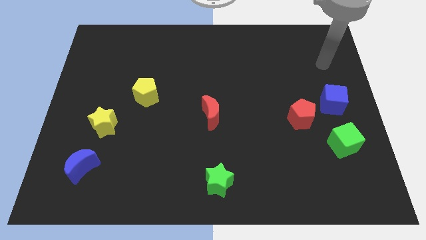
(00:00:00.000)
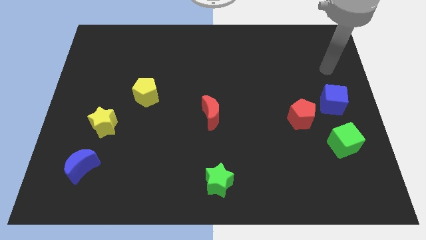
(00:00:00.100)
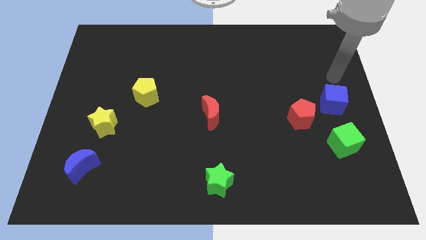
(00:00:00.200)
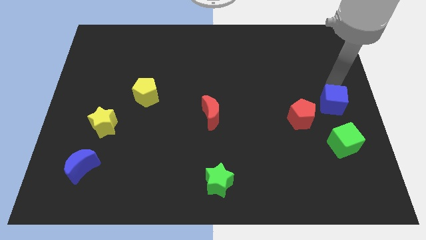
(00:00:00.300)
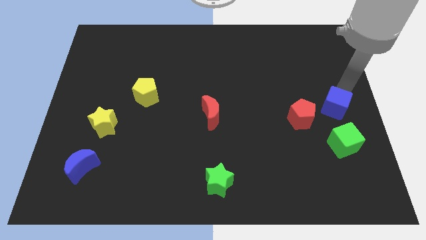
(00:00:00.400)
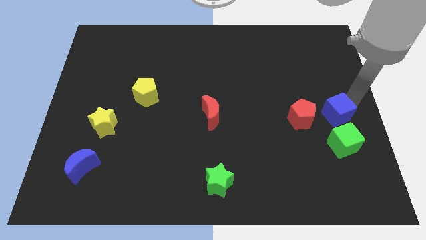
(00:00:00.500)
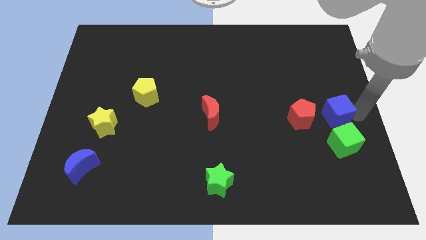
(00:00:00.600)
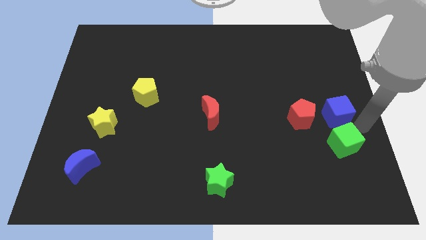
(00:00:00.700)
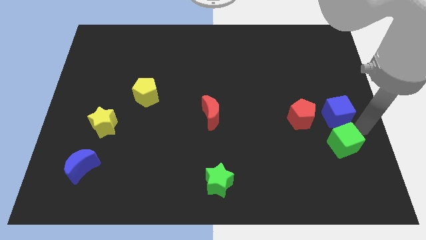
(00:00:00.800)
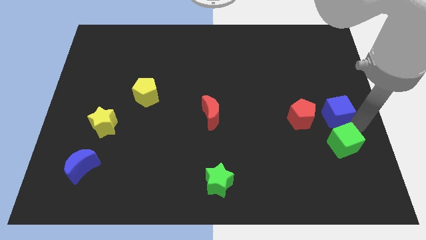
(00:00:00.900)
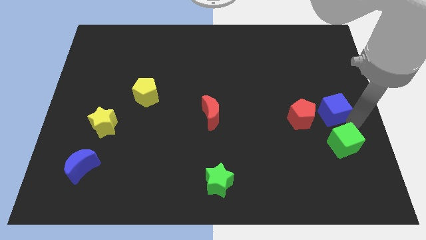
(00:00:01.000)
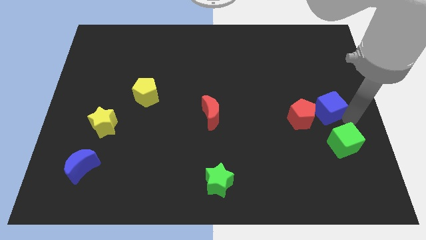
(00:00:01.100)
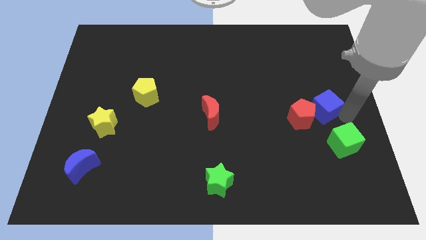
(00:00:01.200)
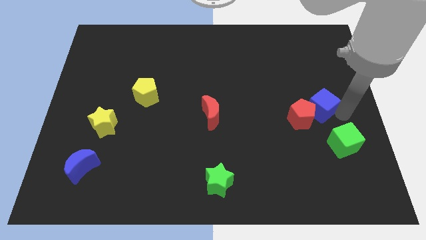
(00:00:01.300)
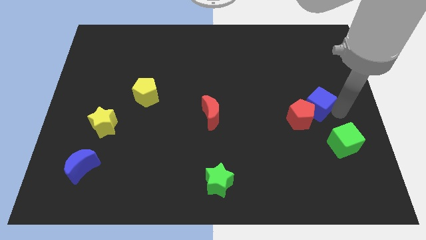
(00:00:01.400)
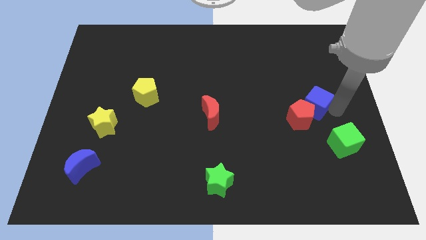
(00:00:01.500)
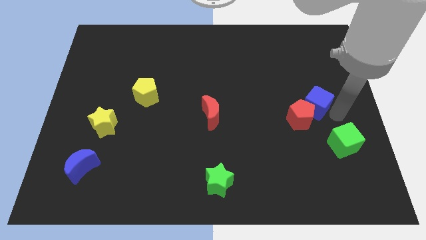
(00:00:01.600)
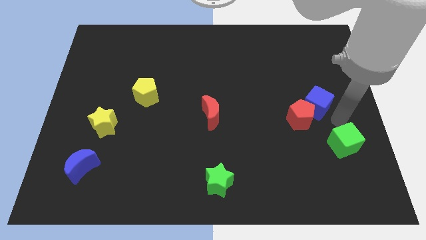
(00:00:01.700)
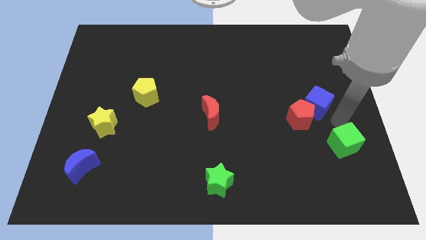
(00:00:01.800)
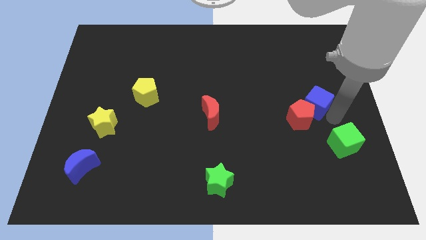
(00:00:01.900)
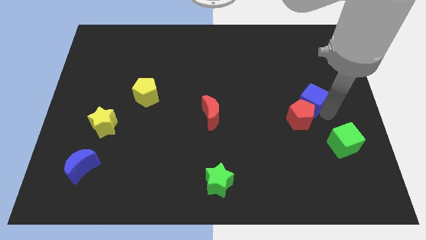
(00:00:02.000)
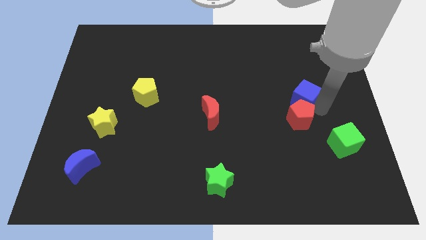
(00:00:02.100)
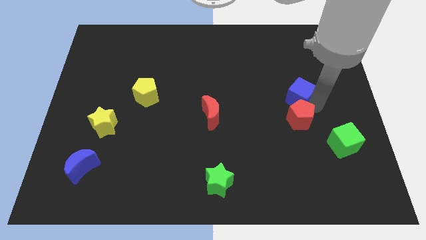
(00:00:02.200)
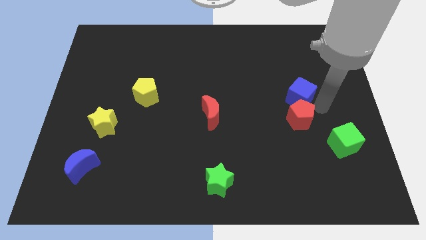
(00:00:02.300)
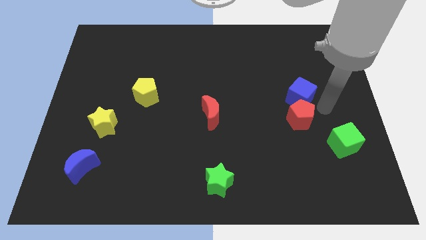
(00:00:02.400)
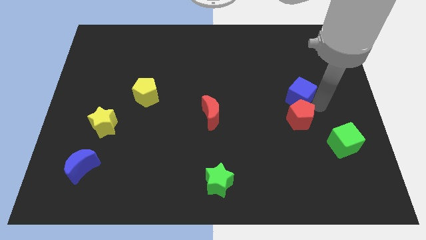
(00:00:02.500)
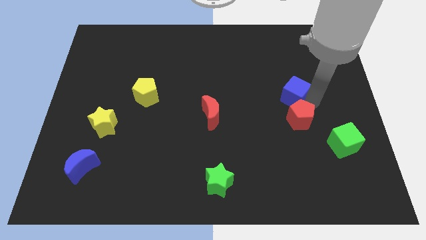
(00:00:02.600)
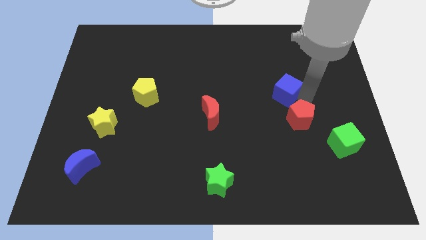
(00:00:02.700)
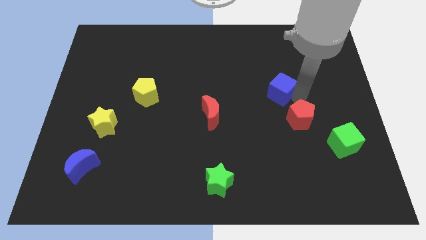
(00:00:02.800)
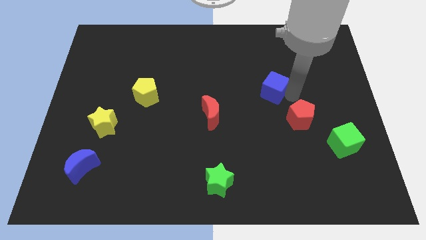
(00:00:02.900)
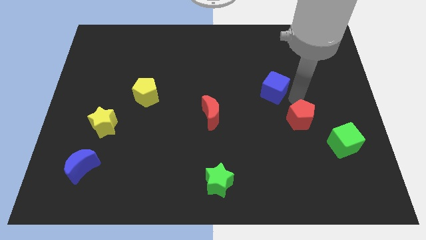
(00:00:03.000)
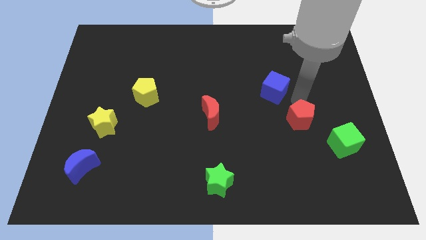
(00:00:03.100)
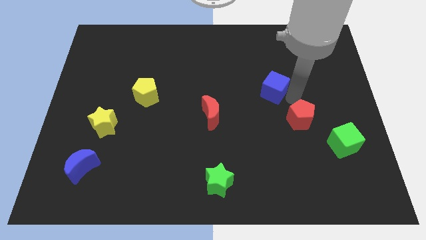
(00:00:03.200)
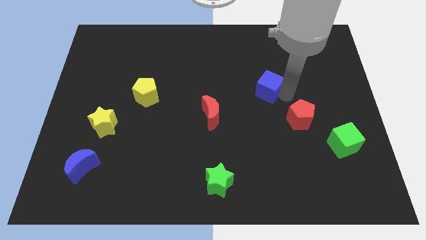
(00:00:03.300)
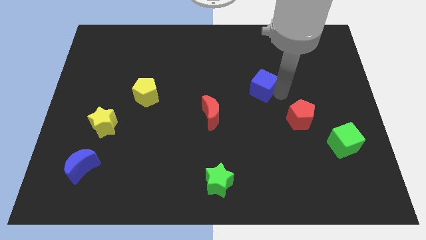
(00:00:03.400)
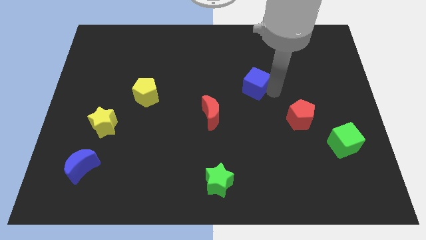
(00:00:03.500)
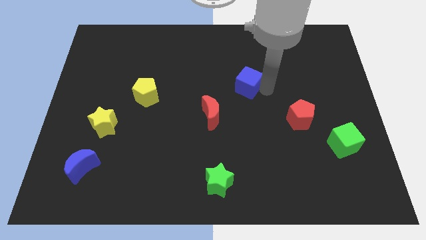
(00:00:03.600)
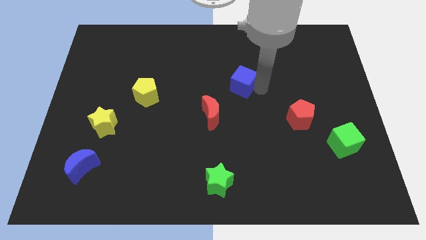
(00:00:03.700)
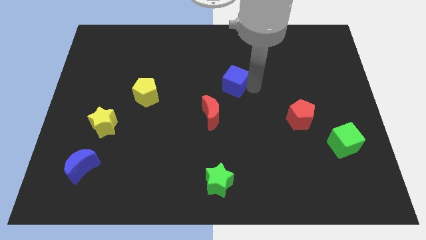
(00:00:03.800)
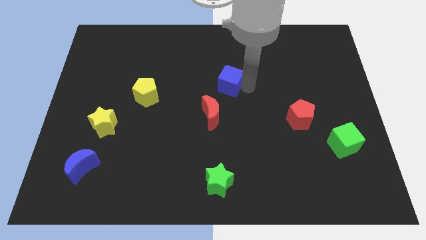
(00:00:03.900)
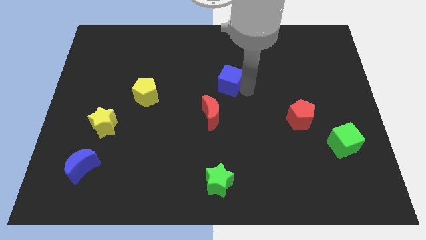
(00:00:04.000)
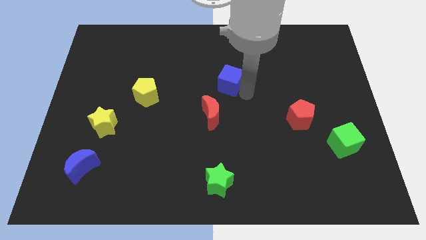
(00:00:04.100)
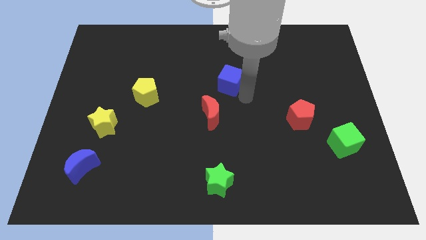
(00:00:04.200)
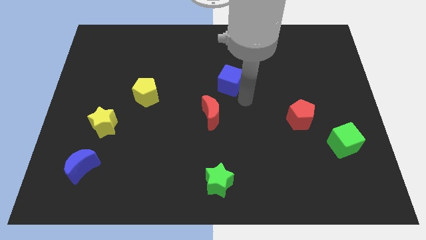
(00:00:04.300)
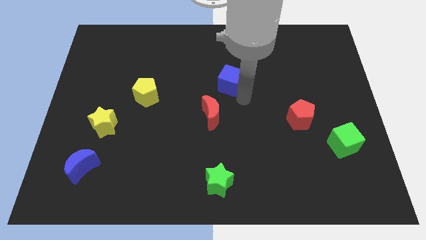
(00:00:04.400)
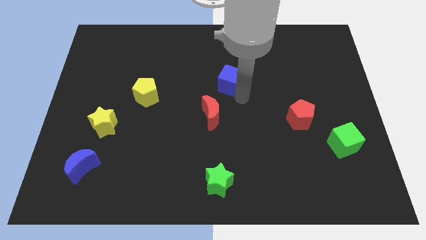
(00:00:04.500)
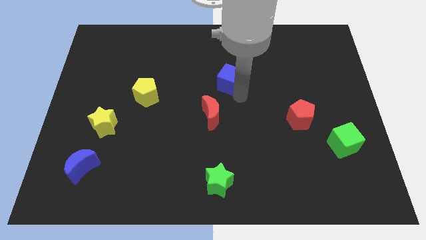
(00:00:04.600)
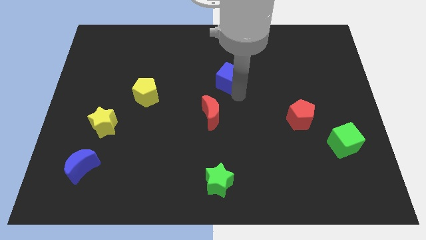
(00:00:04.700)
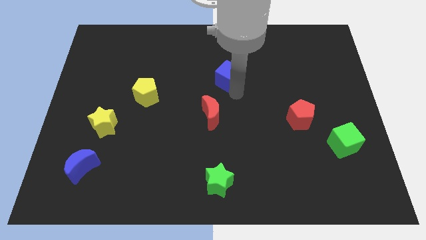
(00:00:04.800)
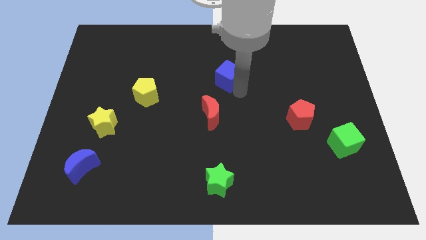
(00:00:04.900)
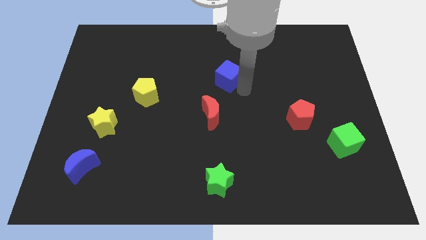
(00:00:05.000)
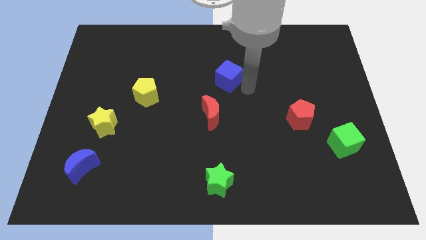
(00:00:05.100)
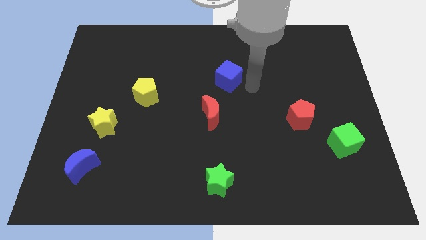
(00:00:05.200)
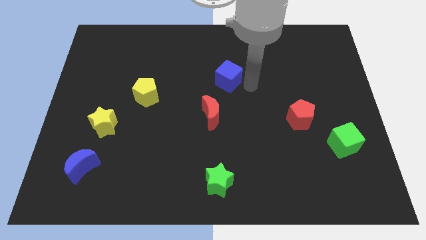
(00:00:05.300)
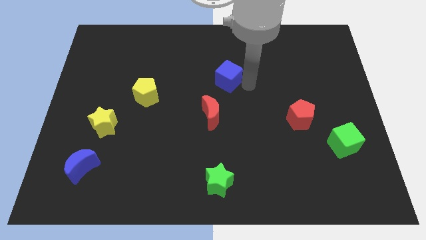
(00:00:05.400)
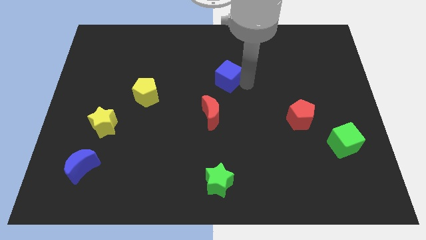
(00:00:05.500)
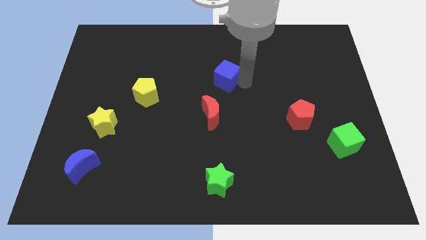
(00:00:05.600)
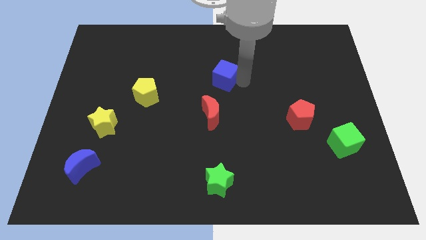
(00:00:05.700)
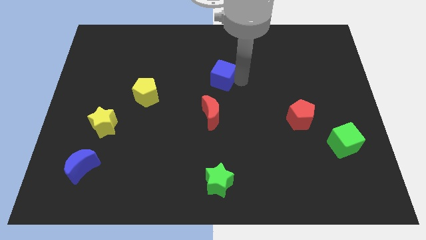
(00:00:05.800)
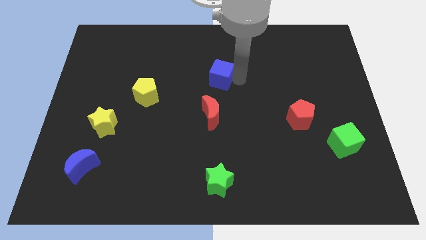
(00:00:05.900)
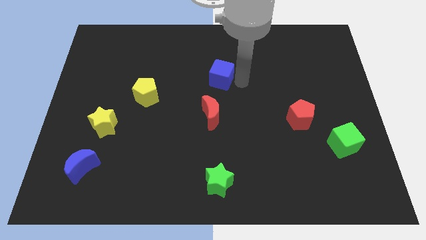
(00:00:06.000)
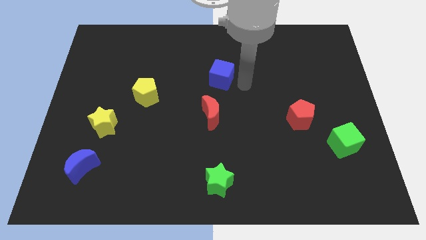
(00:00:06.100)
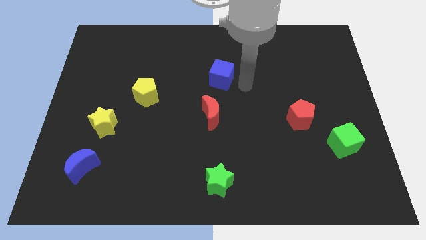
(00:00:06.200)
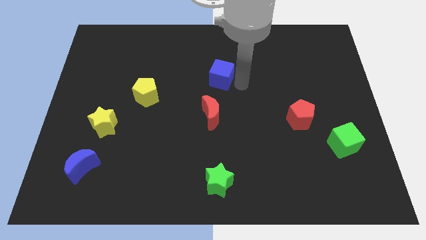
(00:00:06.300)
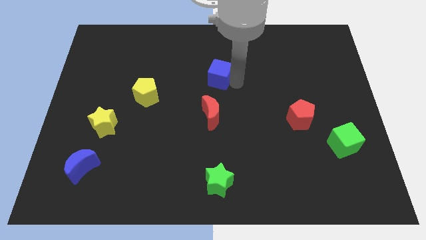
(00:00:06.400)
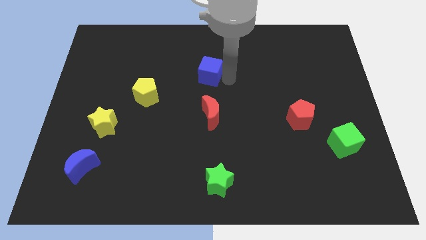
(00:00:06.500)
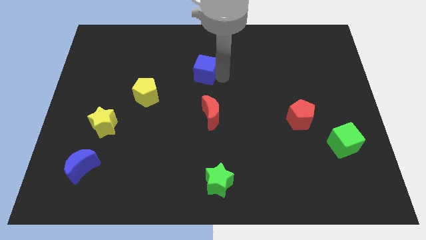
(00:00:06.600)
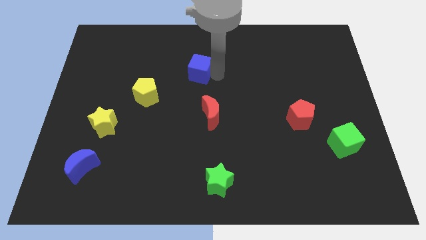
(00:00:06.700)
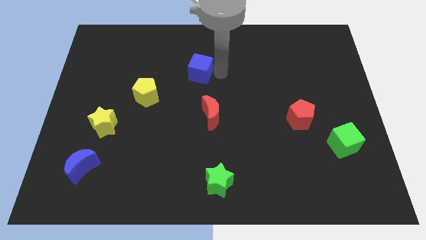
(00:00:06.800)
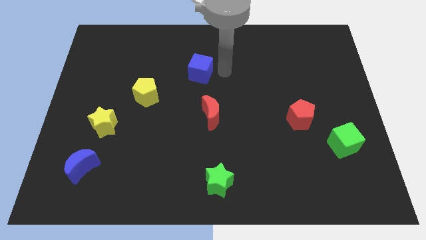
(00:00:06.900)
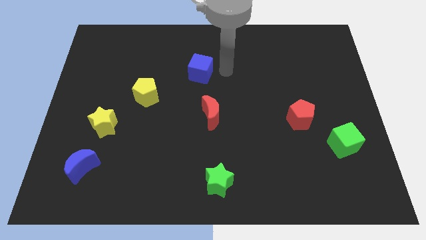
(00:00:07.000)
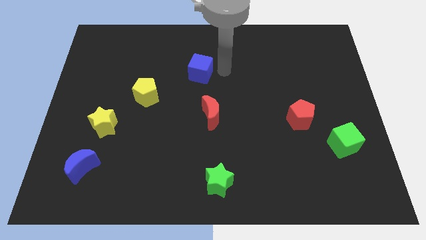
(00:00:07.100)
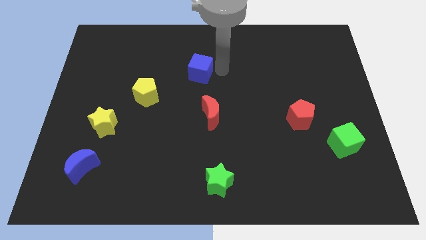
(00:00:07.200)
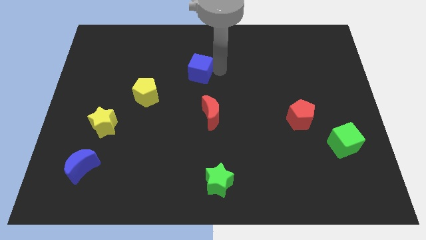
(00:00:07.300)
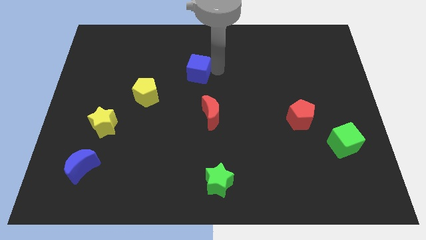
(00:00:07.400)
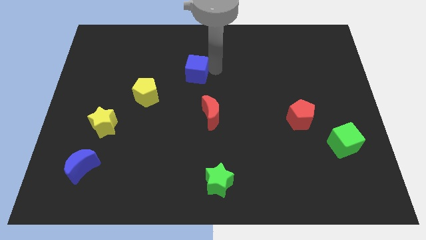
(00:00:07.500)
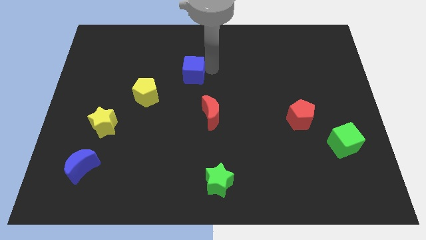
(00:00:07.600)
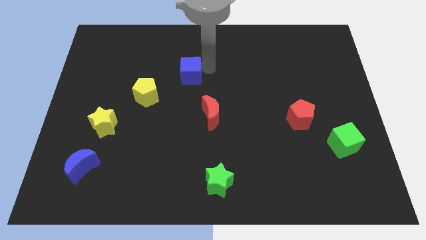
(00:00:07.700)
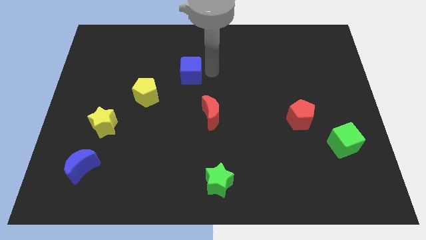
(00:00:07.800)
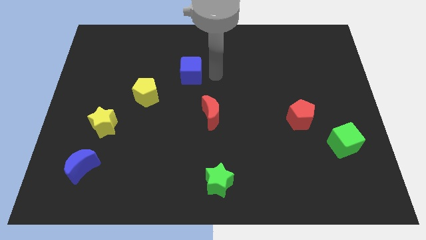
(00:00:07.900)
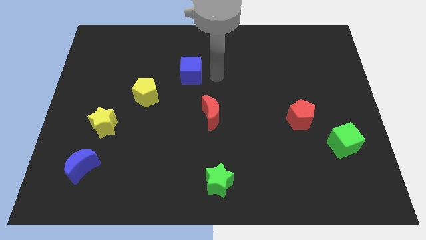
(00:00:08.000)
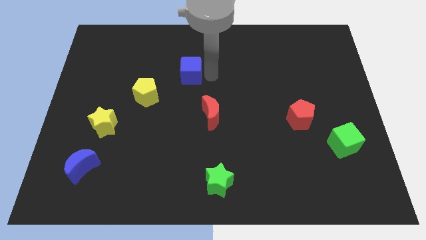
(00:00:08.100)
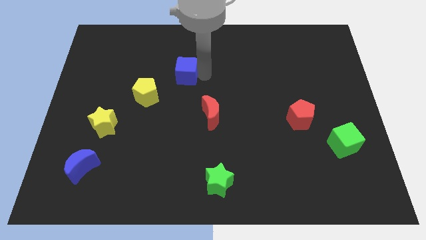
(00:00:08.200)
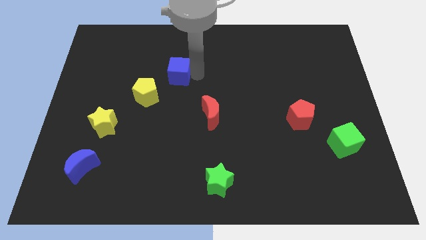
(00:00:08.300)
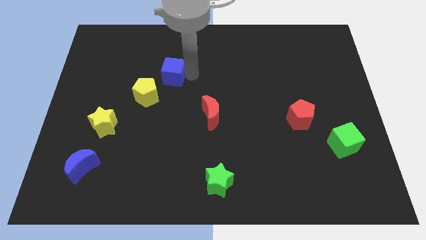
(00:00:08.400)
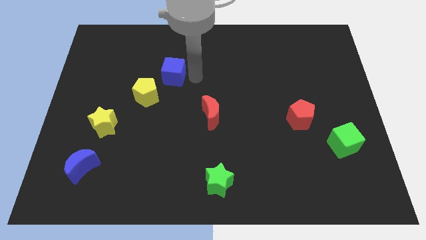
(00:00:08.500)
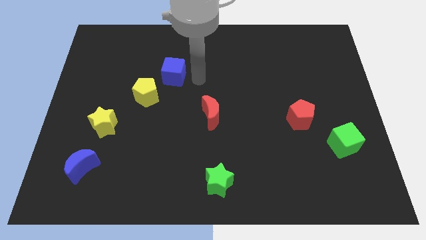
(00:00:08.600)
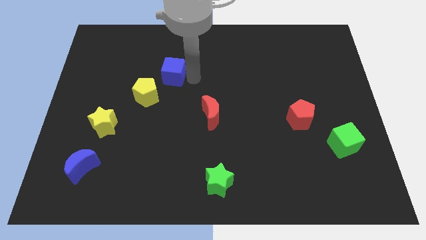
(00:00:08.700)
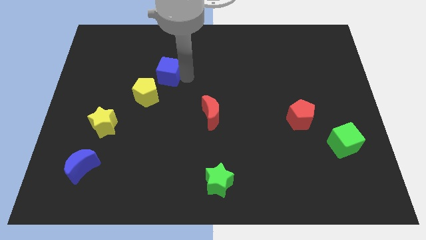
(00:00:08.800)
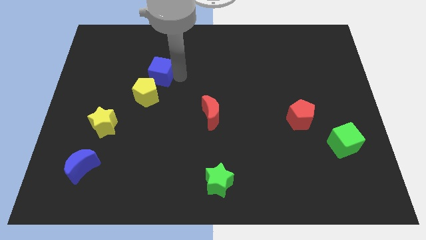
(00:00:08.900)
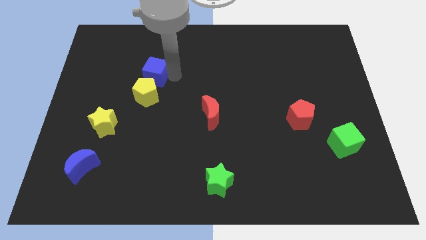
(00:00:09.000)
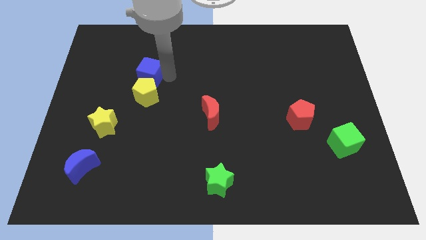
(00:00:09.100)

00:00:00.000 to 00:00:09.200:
move the blue cube to the top left of the yellow pentagon
